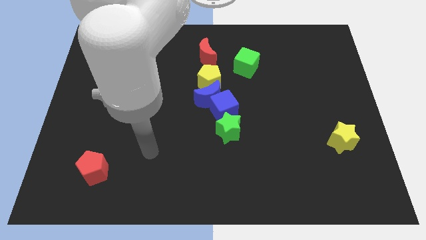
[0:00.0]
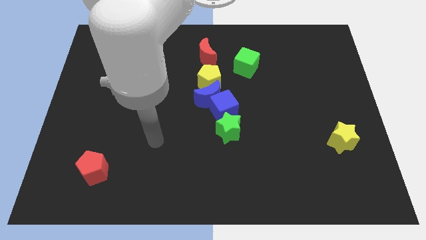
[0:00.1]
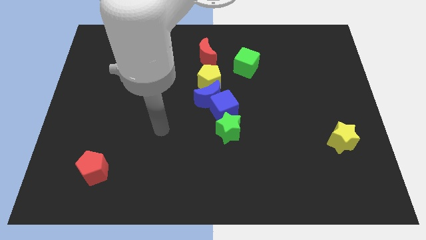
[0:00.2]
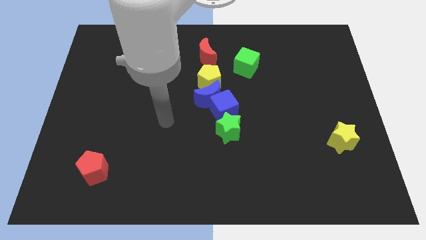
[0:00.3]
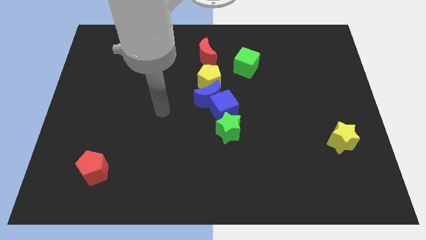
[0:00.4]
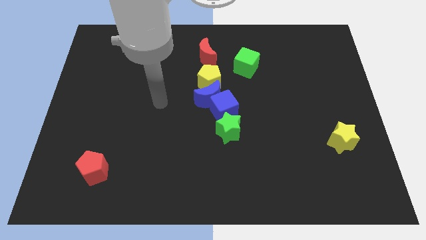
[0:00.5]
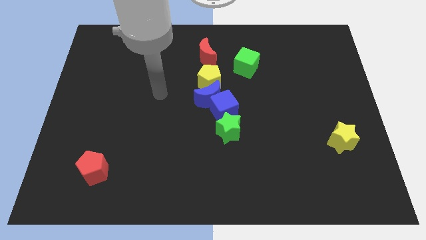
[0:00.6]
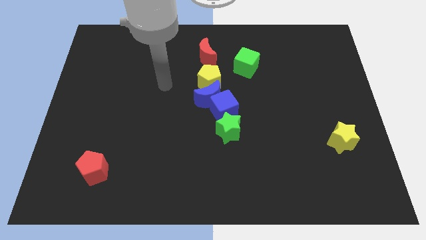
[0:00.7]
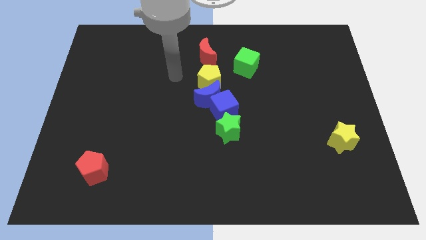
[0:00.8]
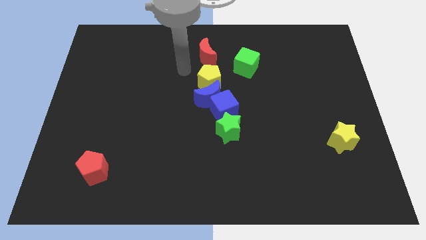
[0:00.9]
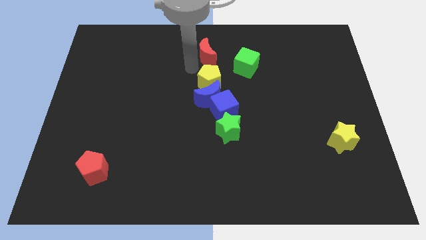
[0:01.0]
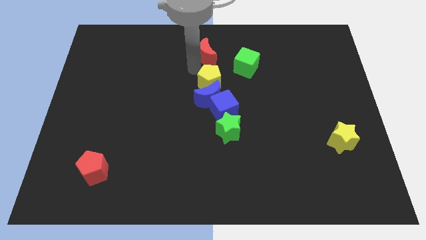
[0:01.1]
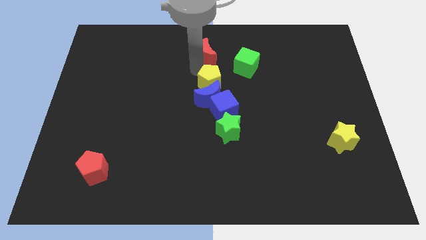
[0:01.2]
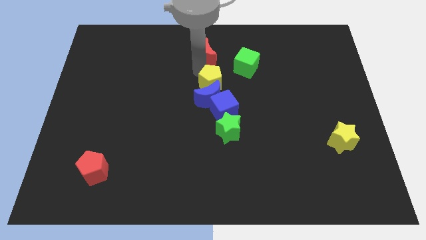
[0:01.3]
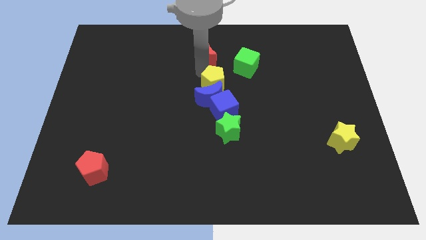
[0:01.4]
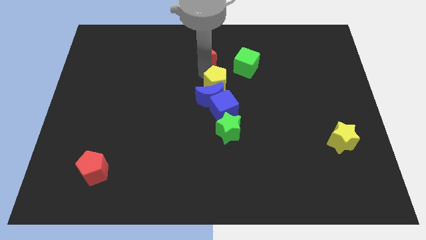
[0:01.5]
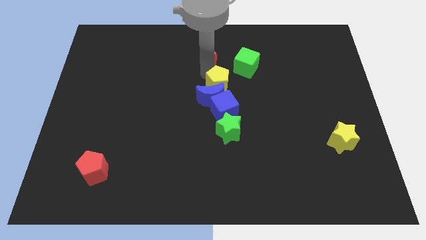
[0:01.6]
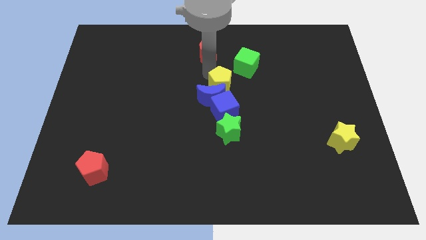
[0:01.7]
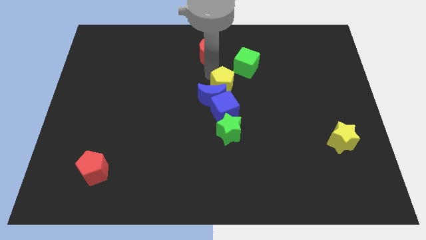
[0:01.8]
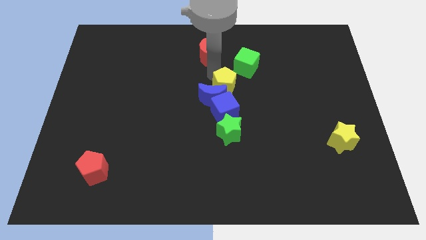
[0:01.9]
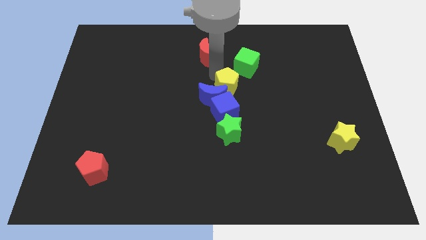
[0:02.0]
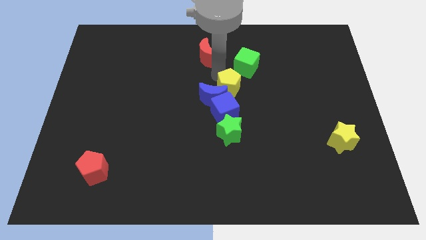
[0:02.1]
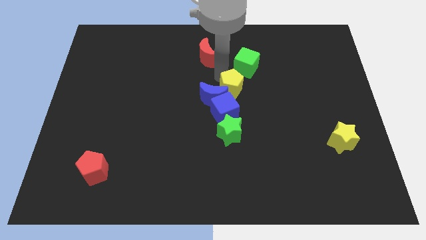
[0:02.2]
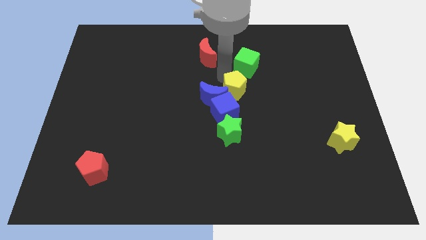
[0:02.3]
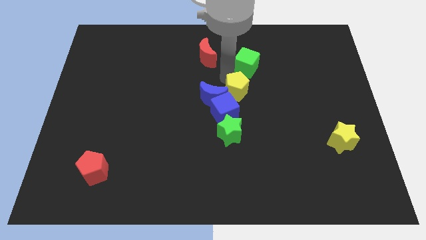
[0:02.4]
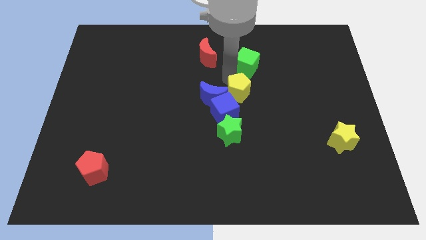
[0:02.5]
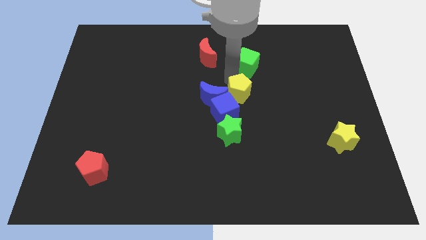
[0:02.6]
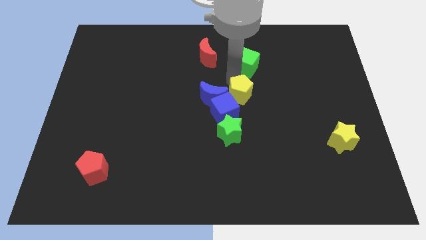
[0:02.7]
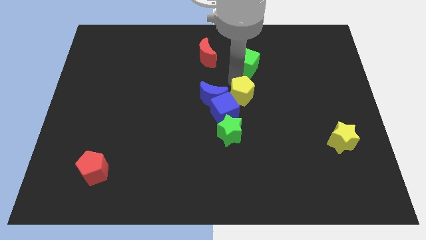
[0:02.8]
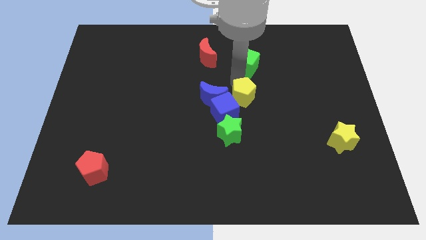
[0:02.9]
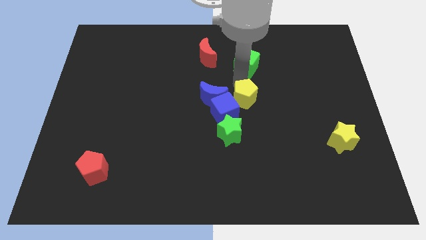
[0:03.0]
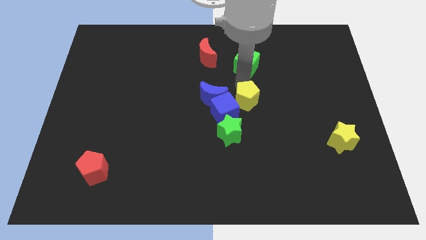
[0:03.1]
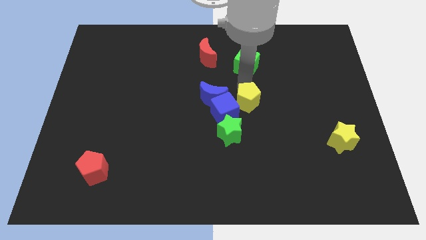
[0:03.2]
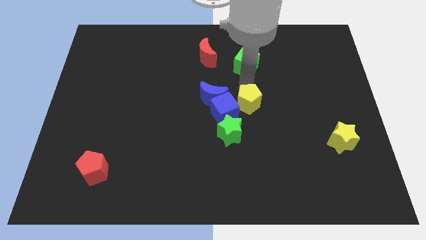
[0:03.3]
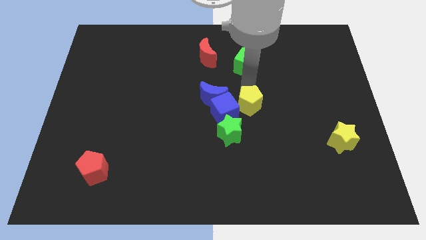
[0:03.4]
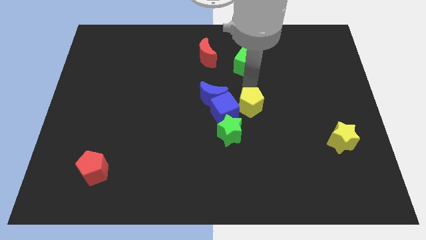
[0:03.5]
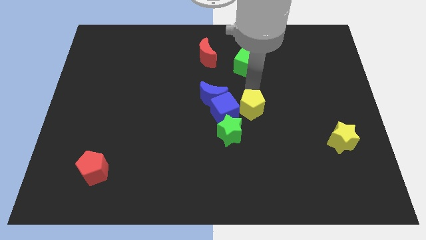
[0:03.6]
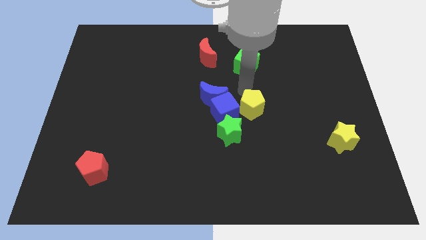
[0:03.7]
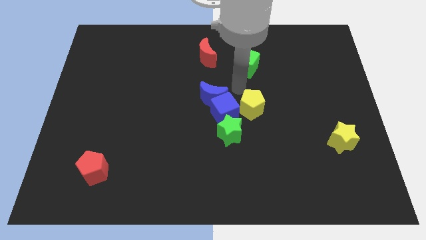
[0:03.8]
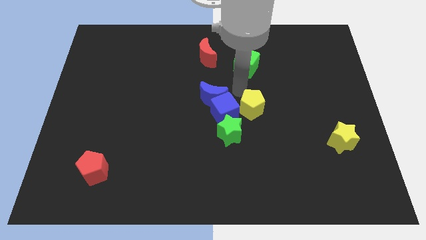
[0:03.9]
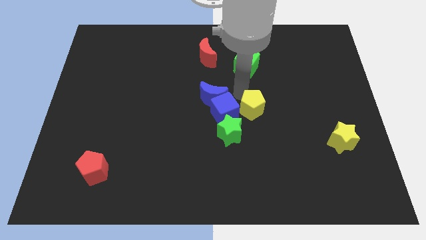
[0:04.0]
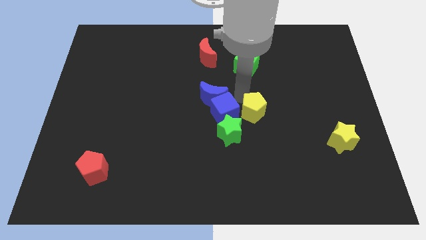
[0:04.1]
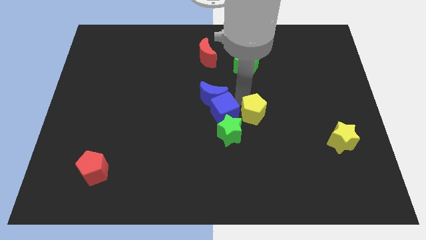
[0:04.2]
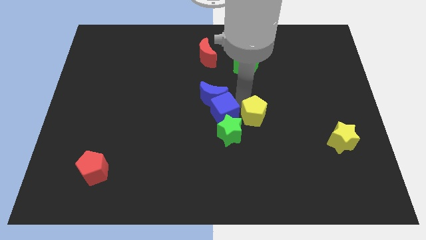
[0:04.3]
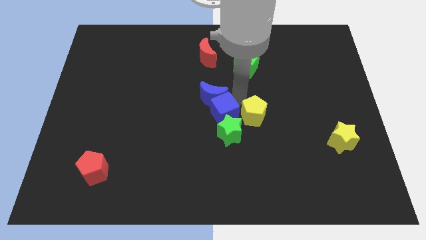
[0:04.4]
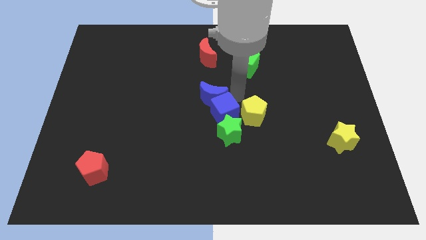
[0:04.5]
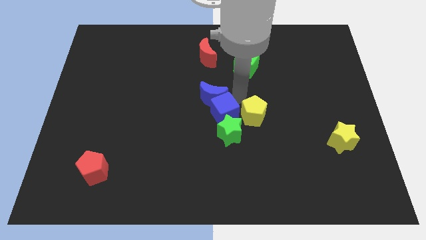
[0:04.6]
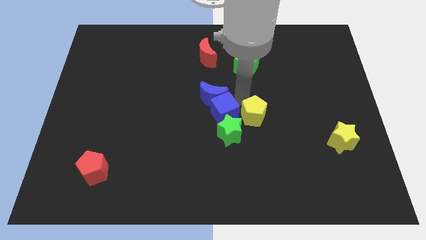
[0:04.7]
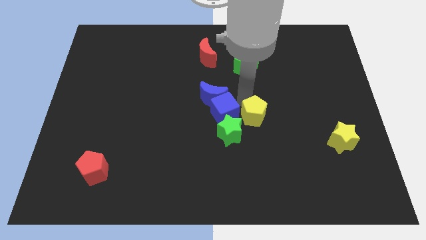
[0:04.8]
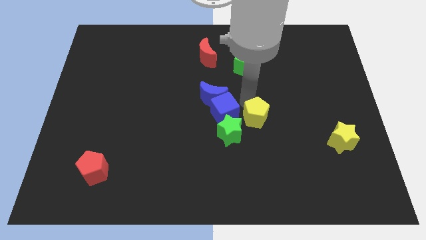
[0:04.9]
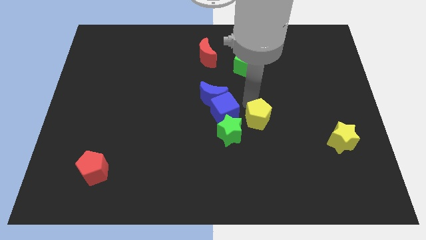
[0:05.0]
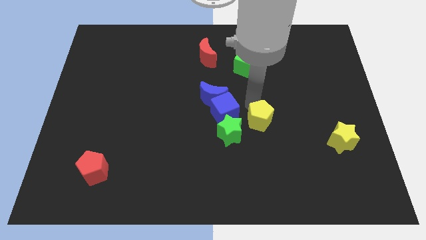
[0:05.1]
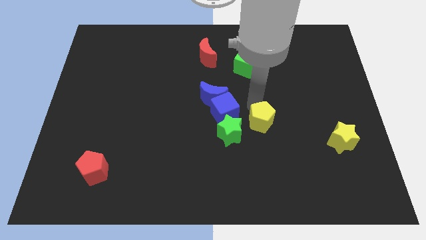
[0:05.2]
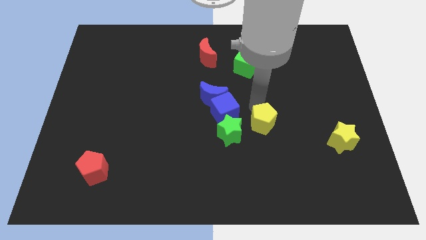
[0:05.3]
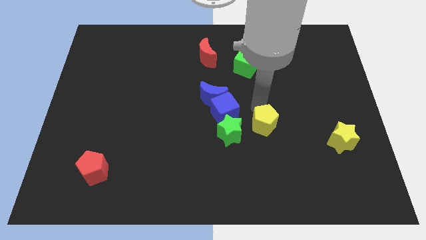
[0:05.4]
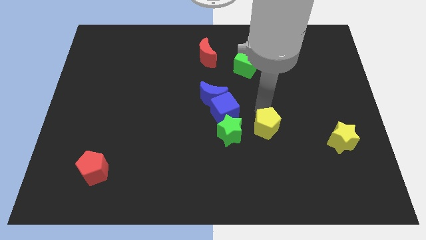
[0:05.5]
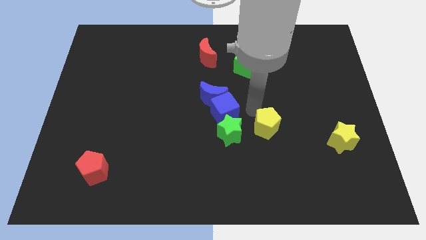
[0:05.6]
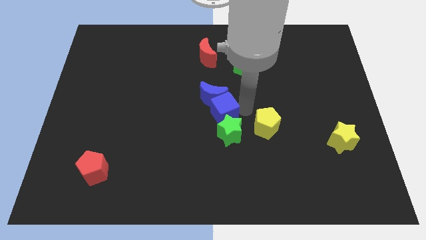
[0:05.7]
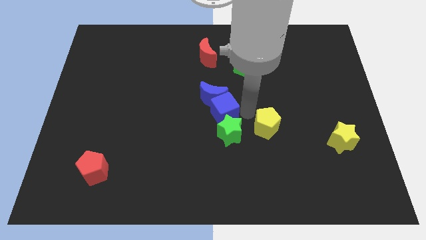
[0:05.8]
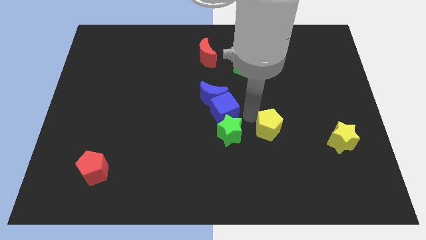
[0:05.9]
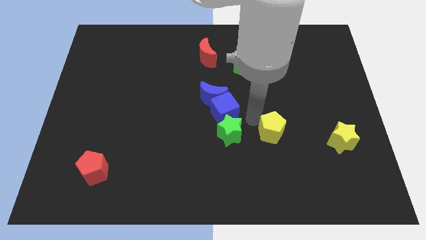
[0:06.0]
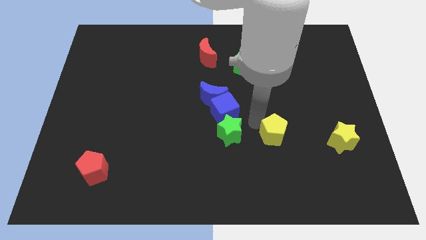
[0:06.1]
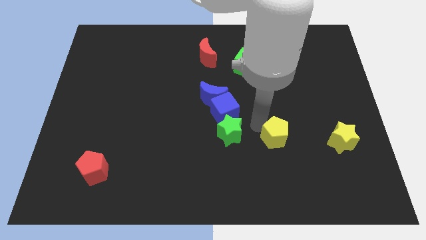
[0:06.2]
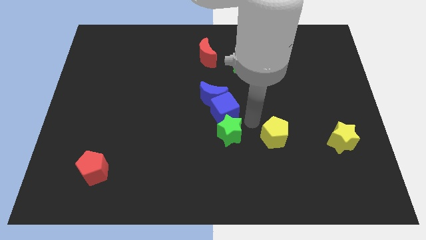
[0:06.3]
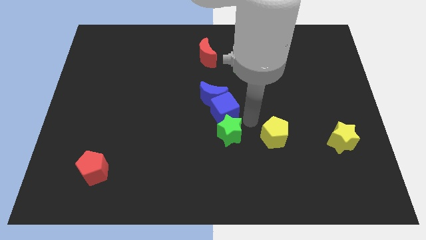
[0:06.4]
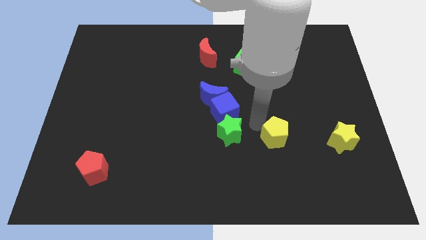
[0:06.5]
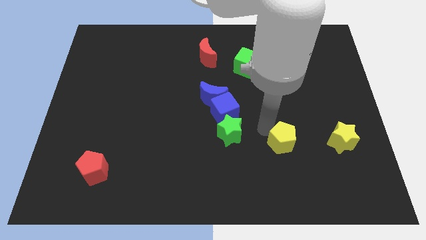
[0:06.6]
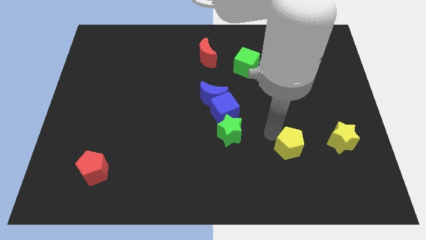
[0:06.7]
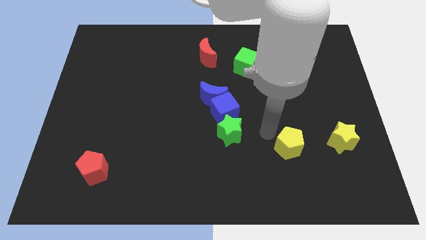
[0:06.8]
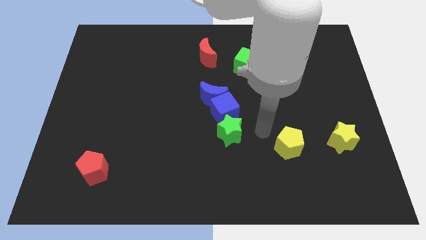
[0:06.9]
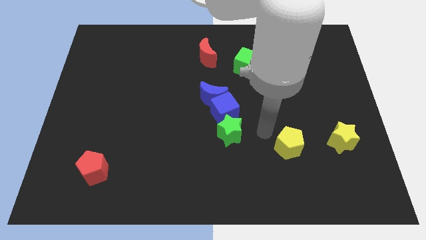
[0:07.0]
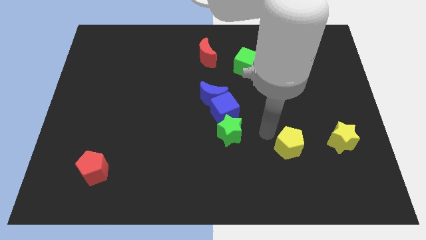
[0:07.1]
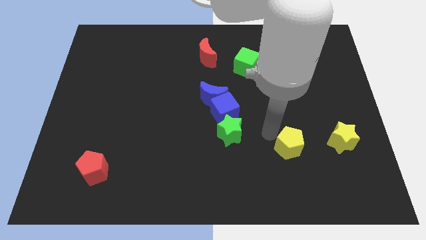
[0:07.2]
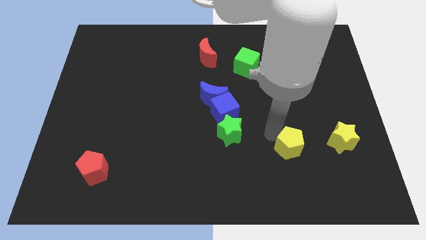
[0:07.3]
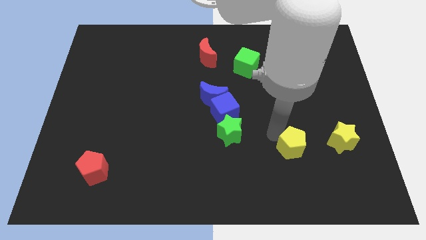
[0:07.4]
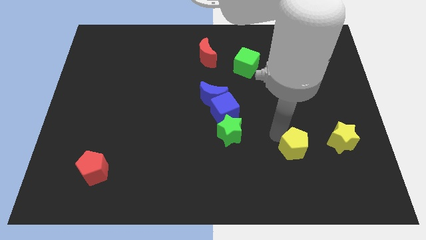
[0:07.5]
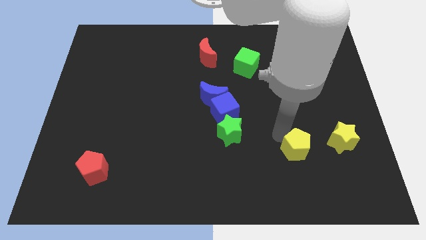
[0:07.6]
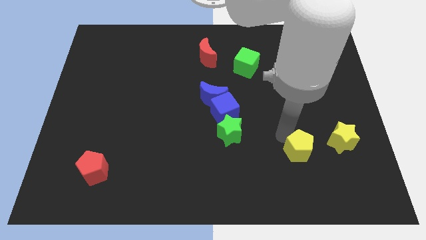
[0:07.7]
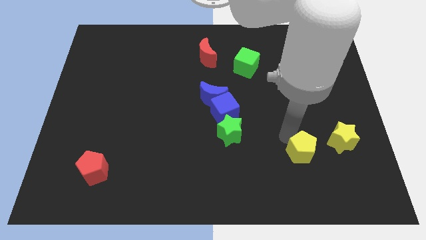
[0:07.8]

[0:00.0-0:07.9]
slide the yellow pentagon to the bottom left of the yellow star
